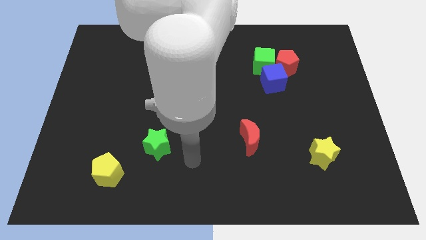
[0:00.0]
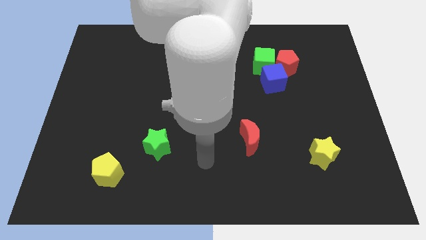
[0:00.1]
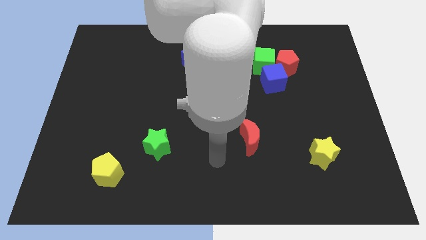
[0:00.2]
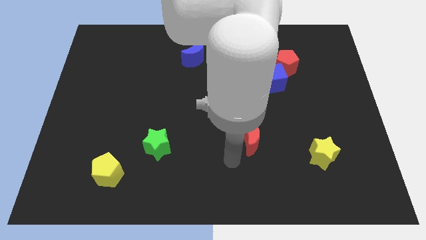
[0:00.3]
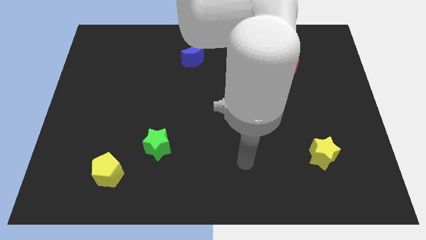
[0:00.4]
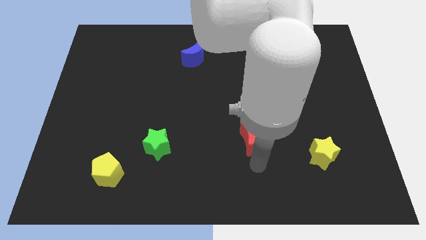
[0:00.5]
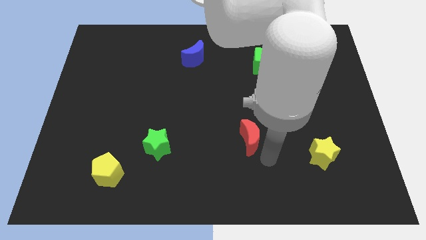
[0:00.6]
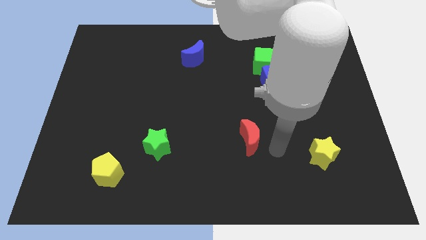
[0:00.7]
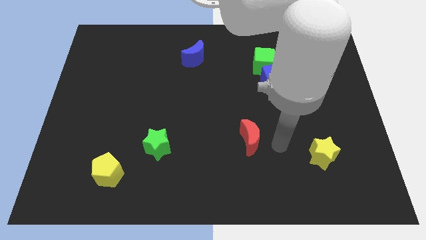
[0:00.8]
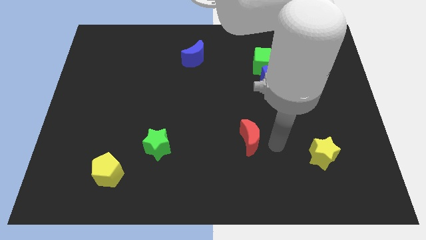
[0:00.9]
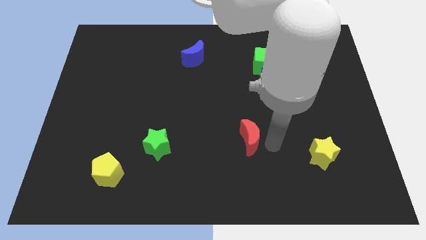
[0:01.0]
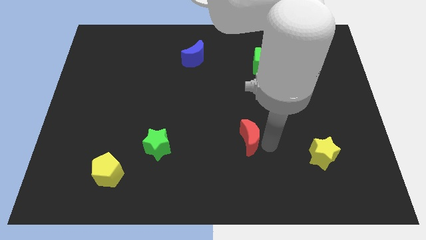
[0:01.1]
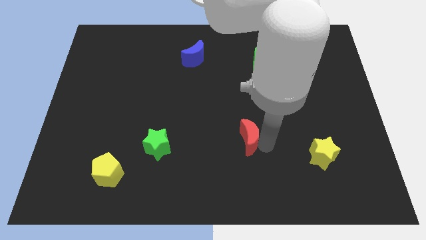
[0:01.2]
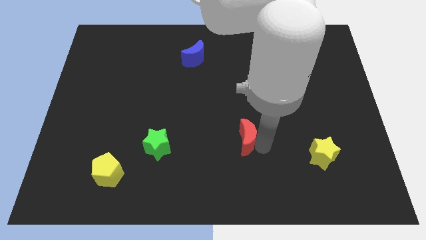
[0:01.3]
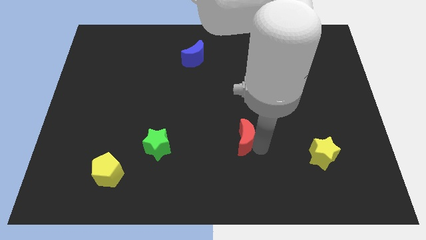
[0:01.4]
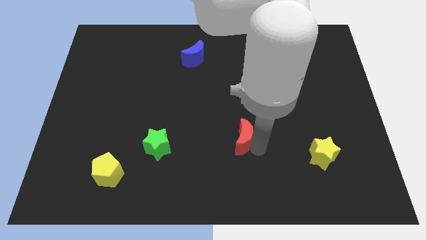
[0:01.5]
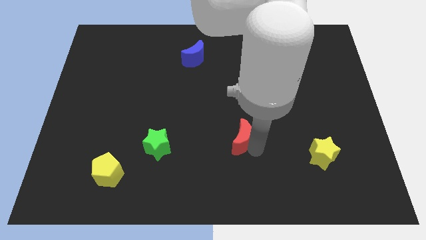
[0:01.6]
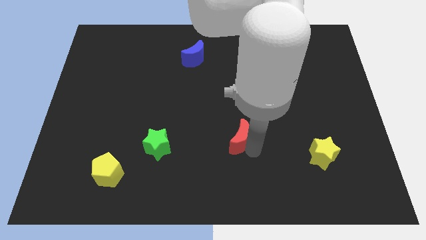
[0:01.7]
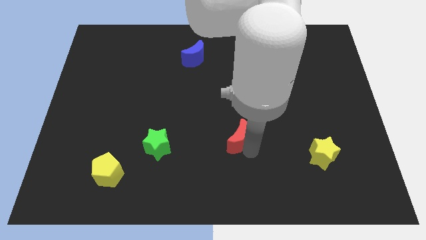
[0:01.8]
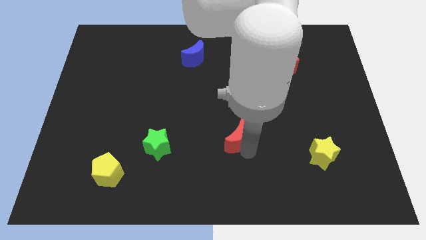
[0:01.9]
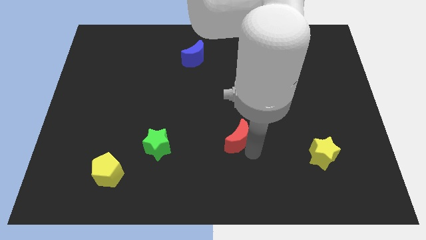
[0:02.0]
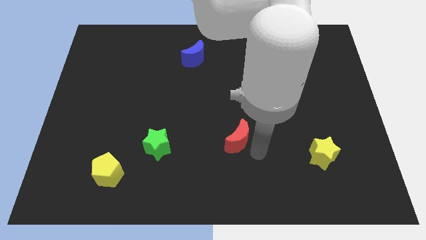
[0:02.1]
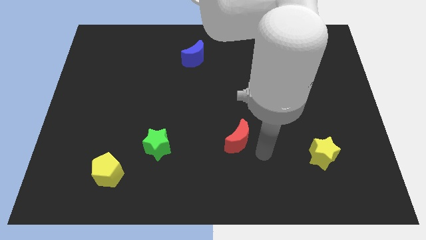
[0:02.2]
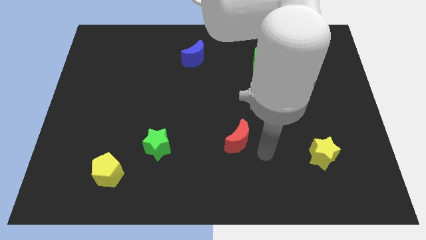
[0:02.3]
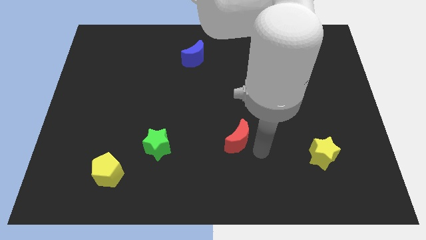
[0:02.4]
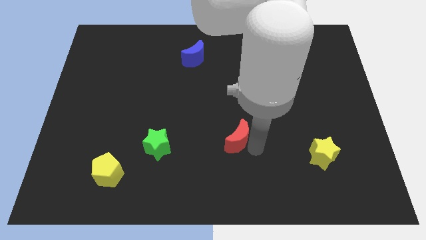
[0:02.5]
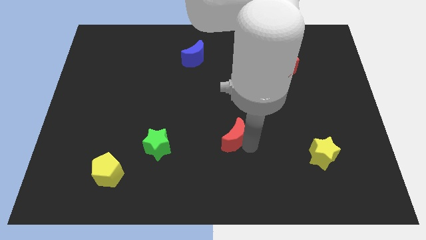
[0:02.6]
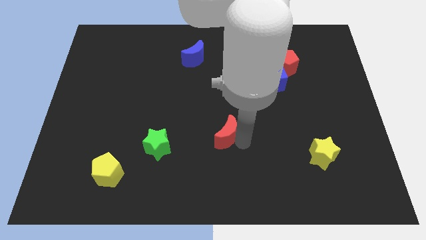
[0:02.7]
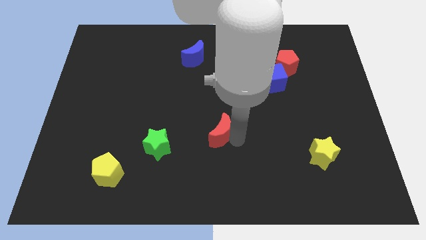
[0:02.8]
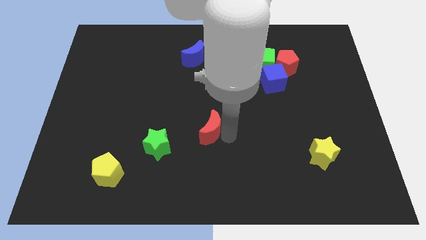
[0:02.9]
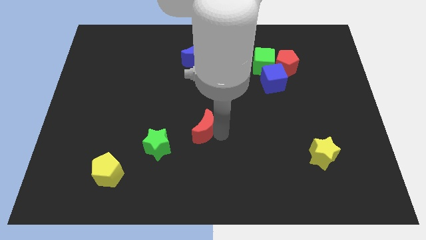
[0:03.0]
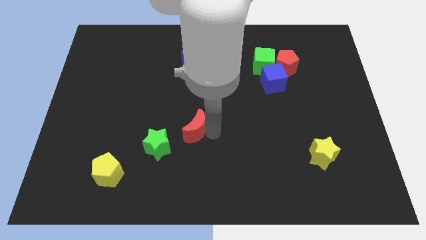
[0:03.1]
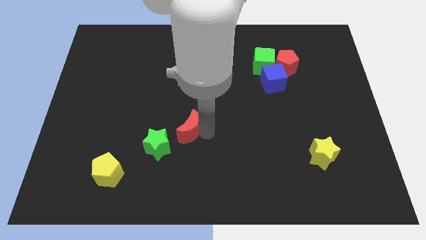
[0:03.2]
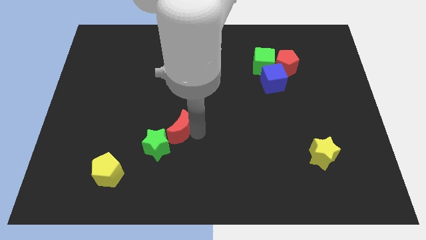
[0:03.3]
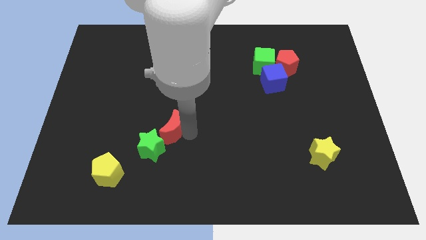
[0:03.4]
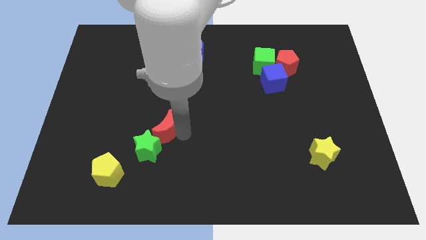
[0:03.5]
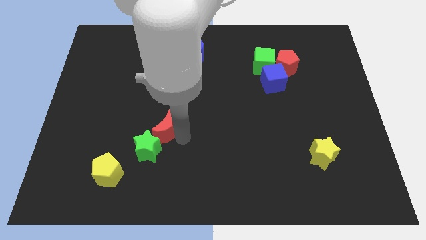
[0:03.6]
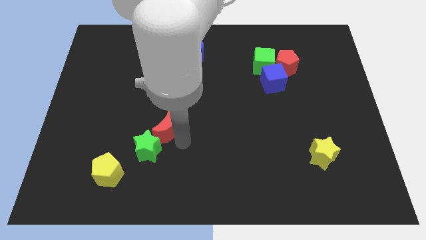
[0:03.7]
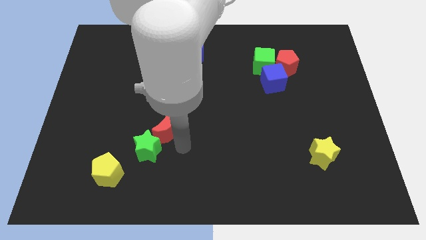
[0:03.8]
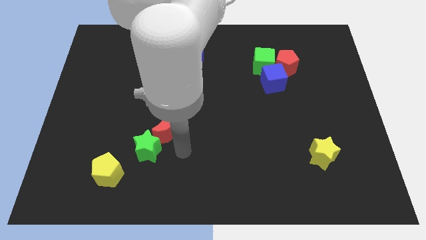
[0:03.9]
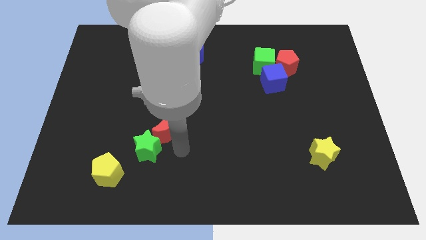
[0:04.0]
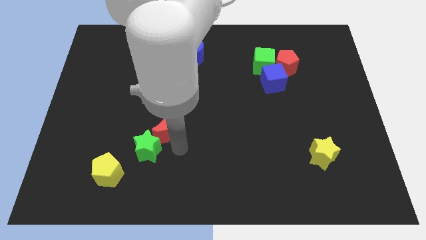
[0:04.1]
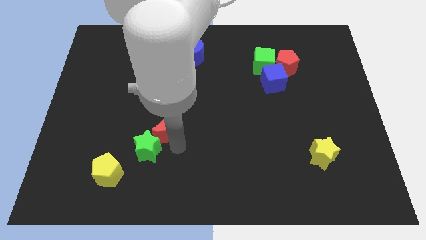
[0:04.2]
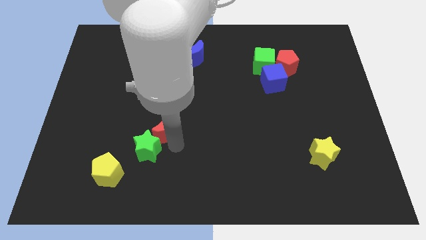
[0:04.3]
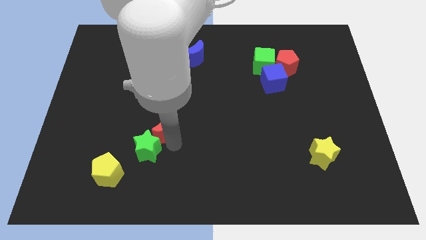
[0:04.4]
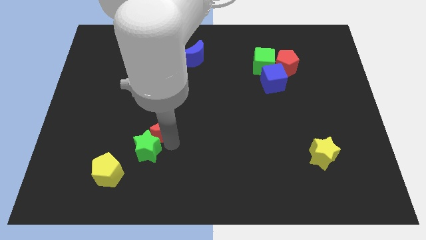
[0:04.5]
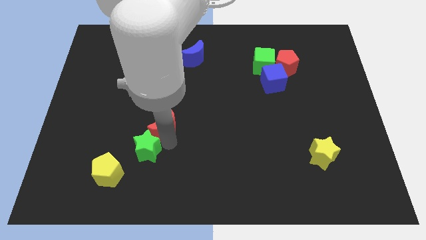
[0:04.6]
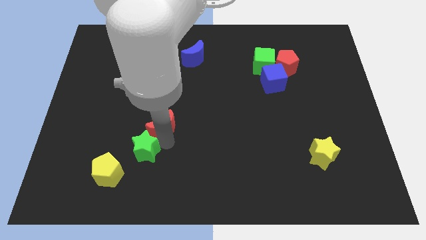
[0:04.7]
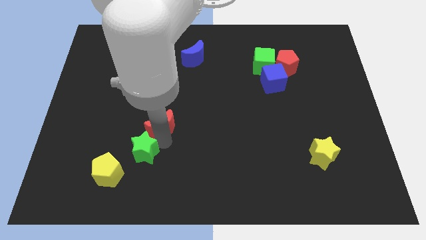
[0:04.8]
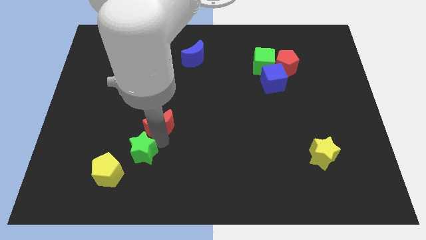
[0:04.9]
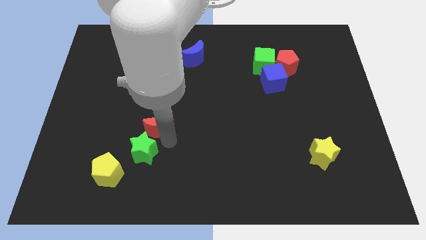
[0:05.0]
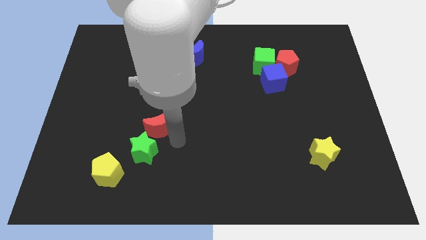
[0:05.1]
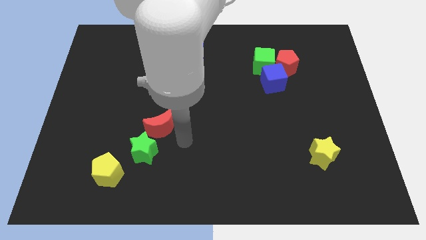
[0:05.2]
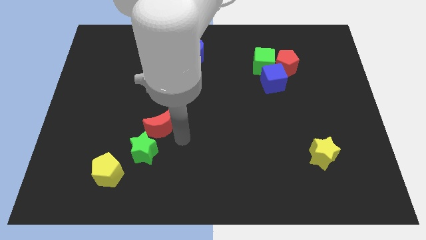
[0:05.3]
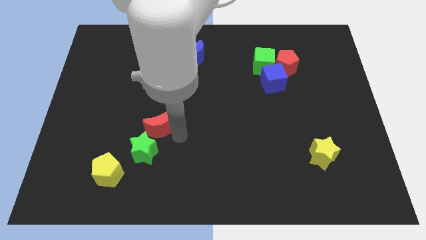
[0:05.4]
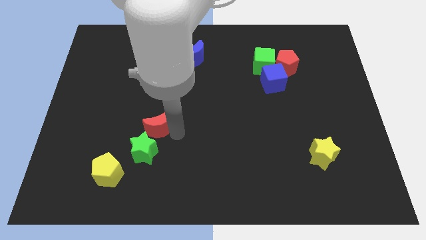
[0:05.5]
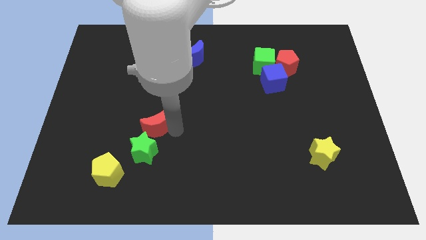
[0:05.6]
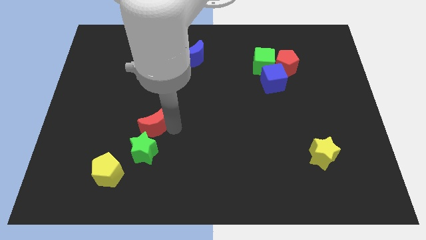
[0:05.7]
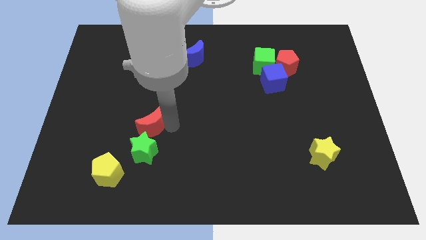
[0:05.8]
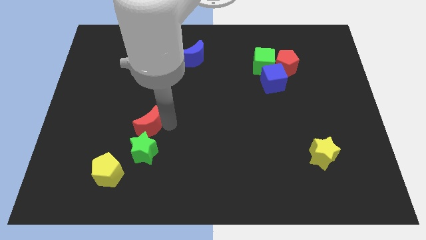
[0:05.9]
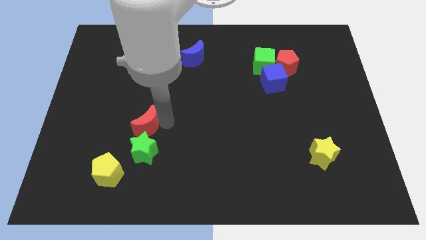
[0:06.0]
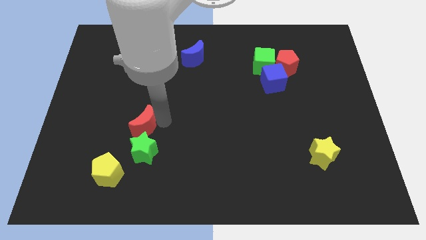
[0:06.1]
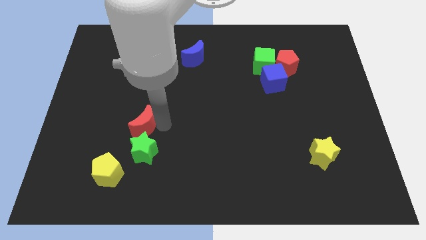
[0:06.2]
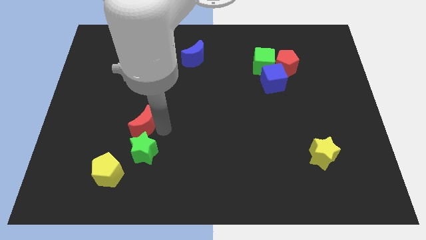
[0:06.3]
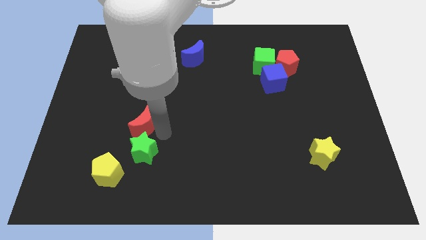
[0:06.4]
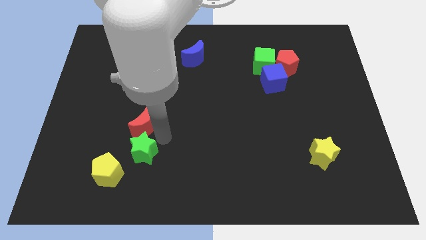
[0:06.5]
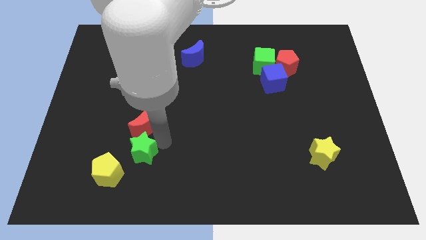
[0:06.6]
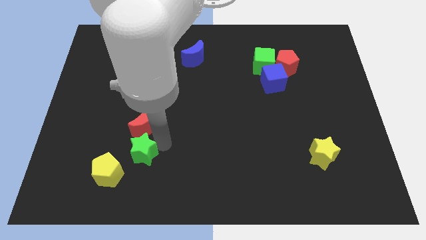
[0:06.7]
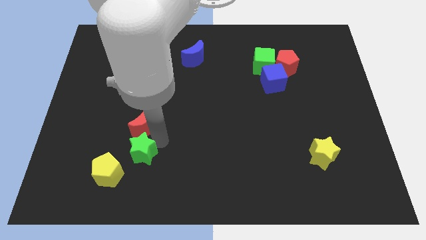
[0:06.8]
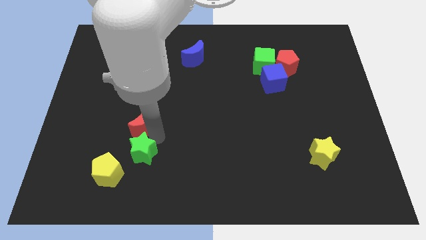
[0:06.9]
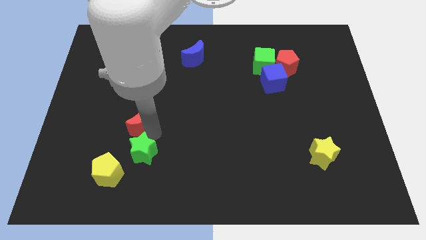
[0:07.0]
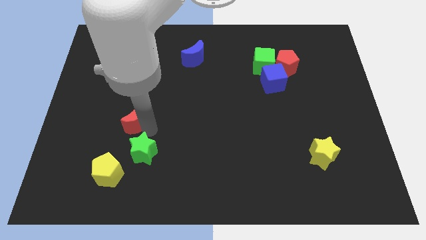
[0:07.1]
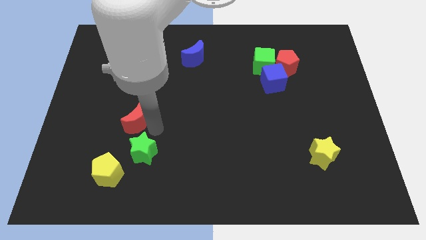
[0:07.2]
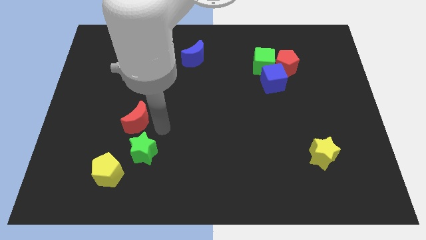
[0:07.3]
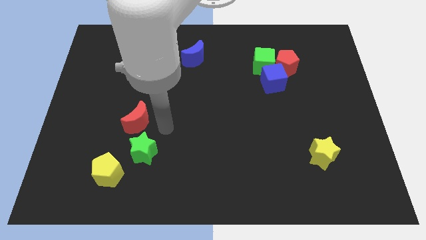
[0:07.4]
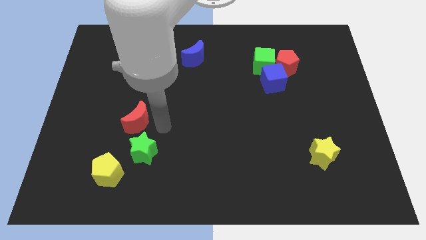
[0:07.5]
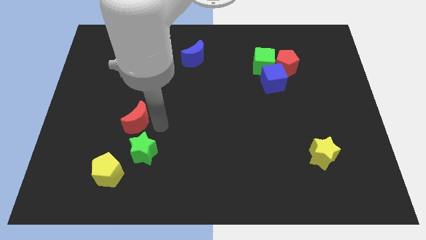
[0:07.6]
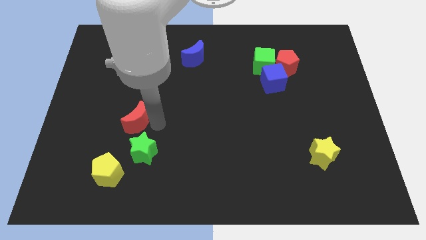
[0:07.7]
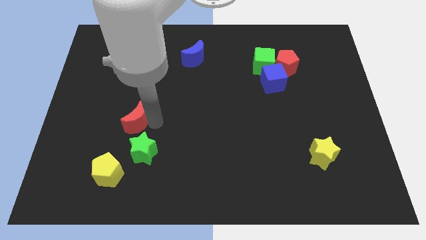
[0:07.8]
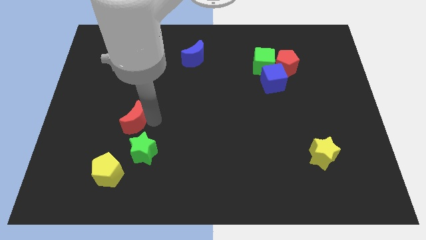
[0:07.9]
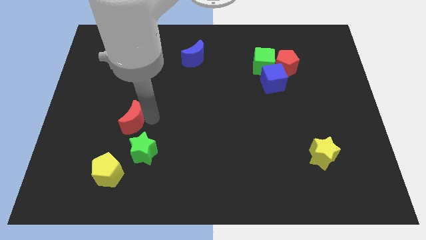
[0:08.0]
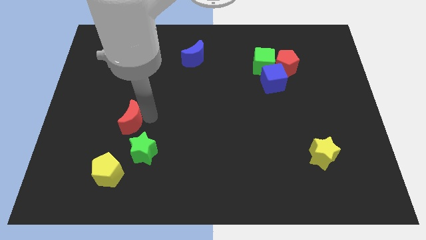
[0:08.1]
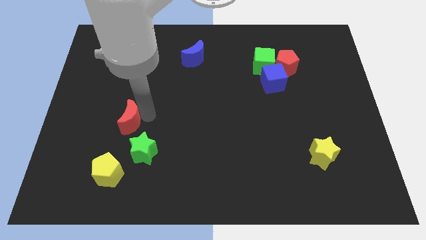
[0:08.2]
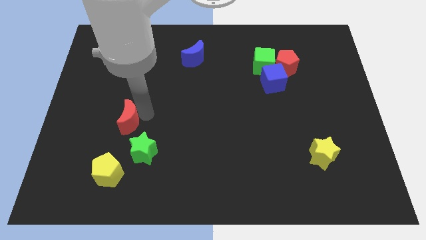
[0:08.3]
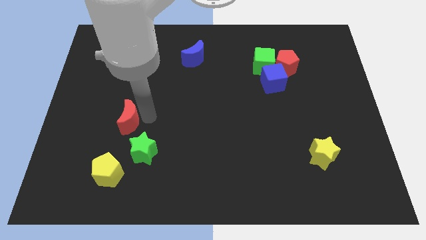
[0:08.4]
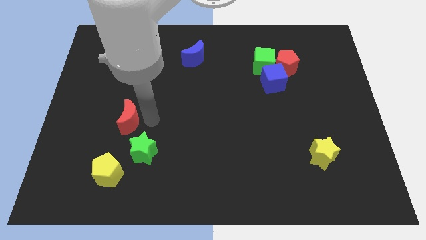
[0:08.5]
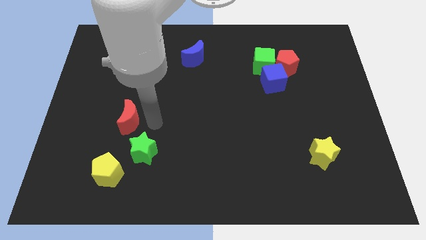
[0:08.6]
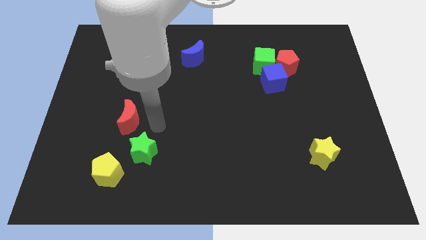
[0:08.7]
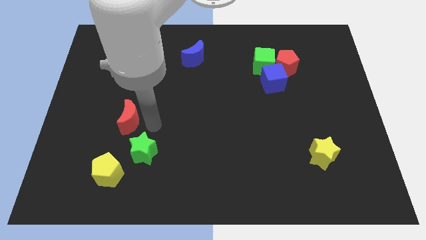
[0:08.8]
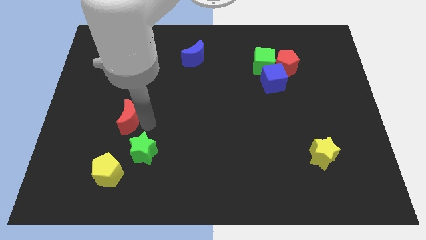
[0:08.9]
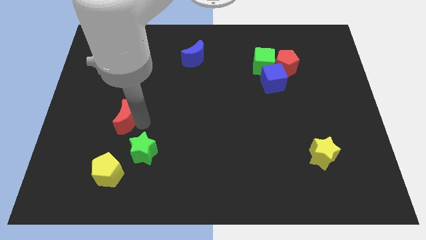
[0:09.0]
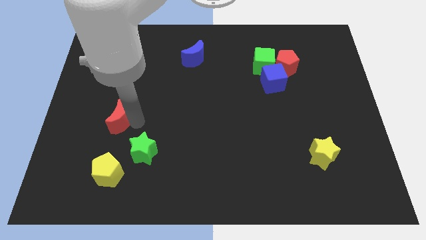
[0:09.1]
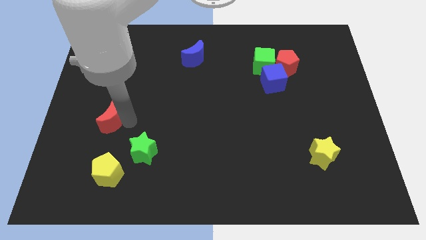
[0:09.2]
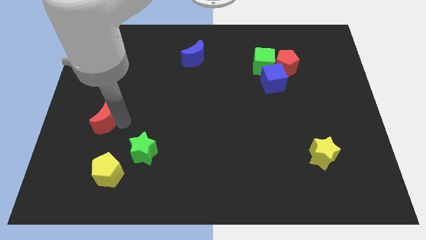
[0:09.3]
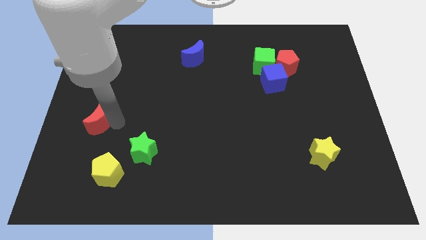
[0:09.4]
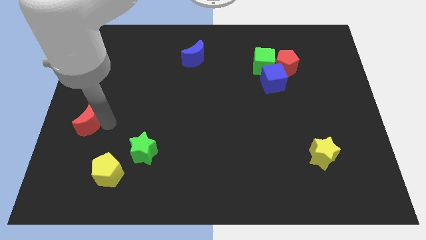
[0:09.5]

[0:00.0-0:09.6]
put the red moon to the left side
